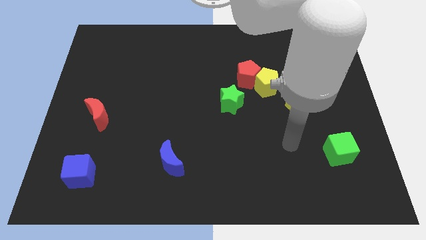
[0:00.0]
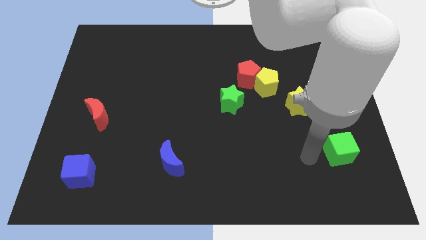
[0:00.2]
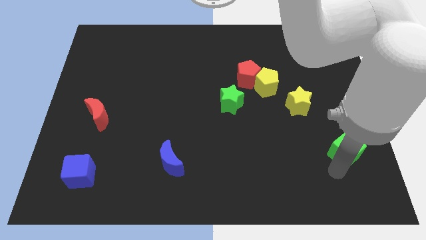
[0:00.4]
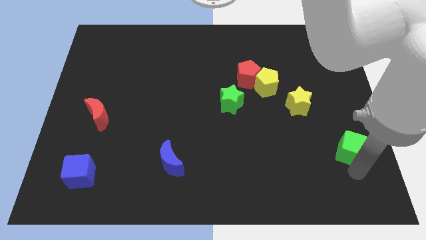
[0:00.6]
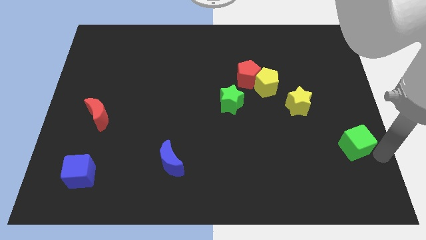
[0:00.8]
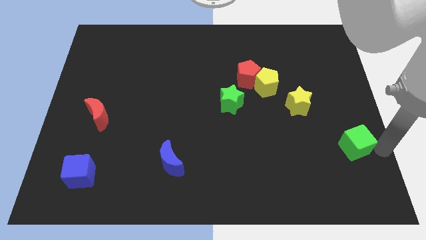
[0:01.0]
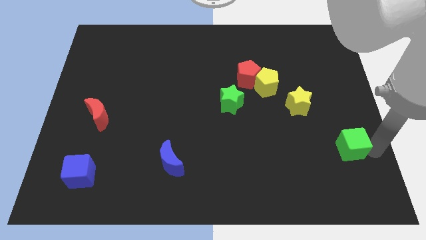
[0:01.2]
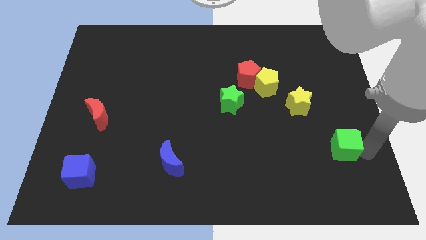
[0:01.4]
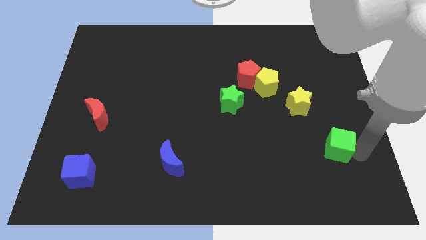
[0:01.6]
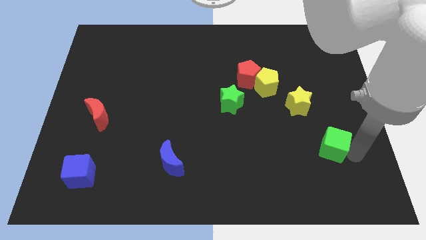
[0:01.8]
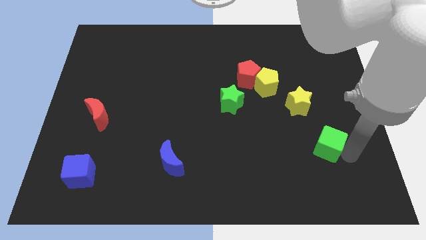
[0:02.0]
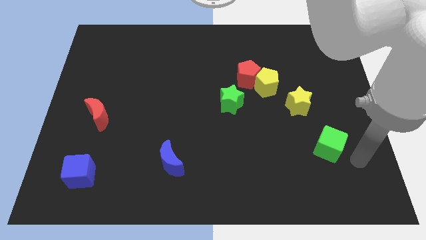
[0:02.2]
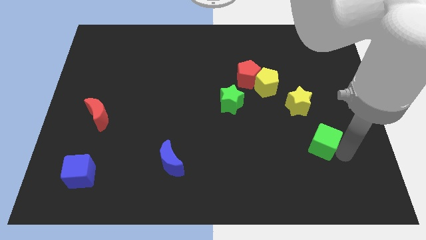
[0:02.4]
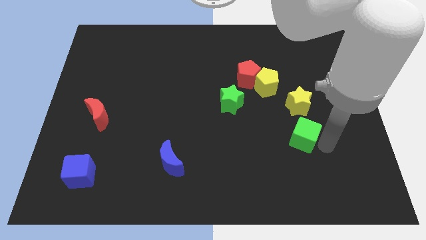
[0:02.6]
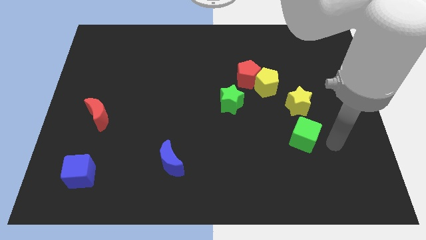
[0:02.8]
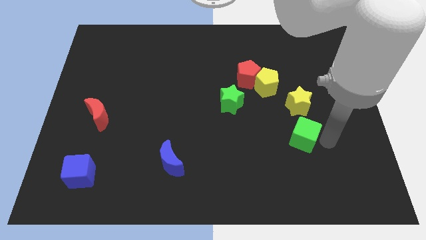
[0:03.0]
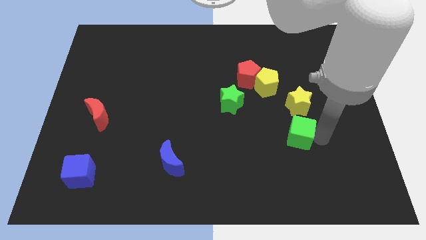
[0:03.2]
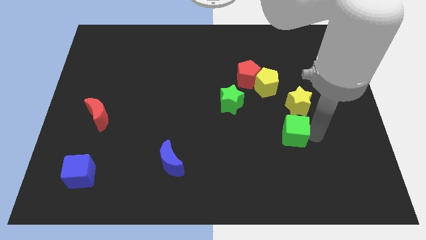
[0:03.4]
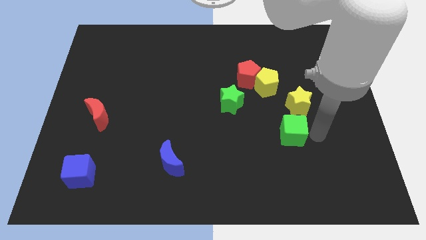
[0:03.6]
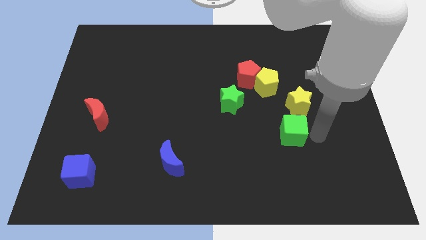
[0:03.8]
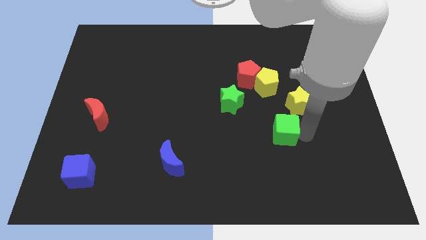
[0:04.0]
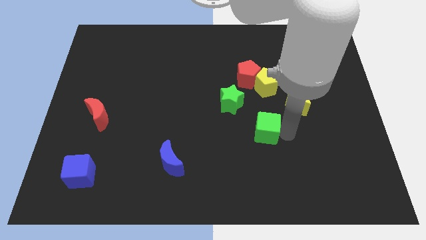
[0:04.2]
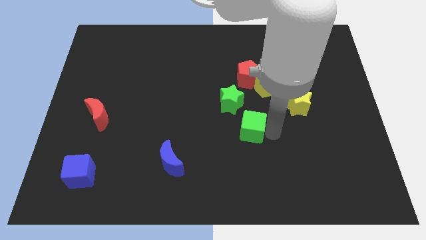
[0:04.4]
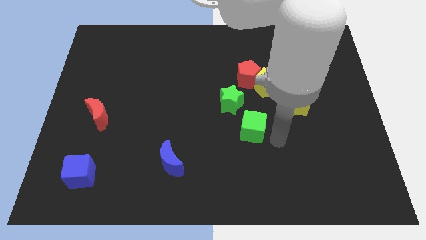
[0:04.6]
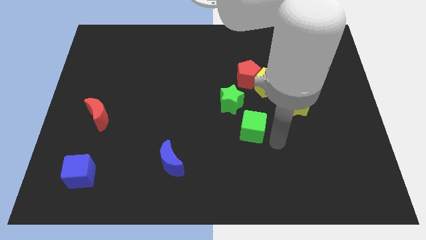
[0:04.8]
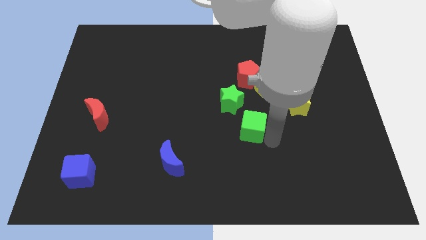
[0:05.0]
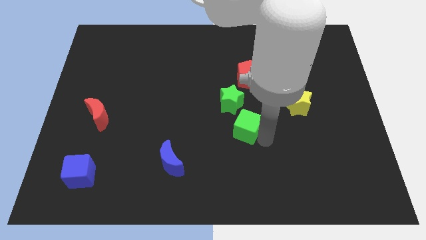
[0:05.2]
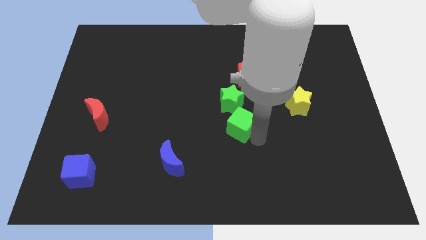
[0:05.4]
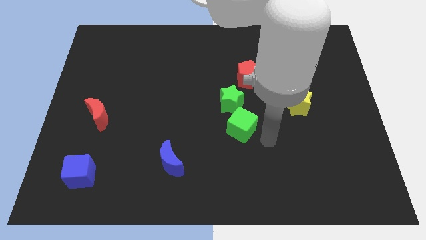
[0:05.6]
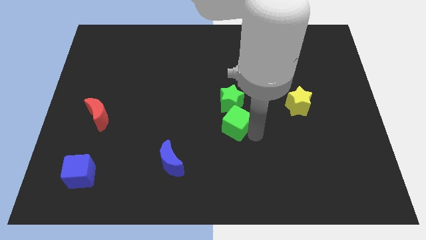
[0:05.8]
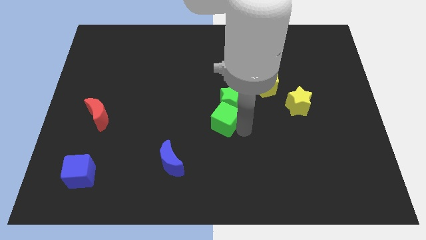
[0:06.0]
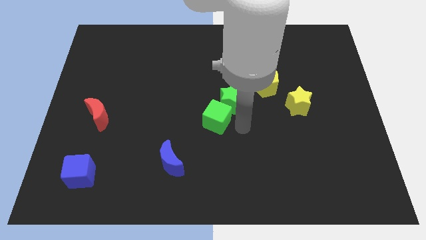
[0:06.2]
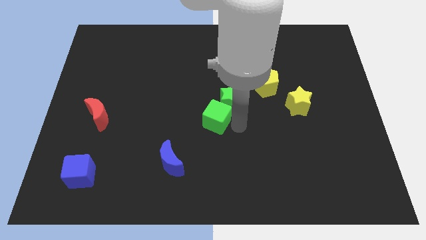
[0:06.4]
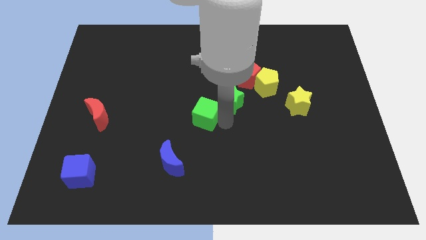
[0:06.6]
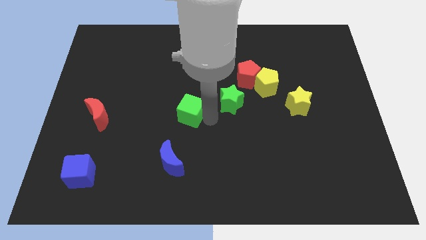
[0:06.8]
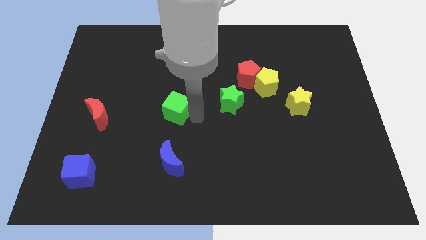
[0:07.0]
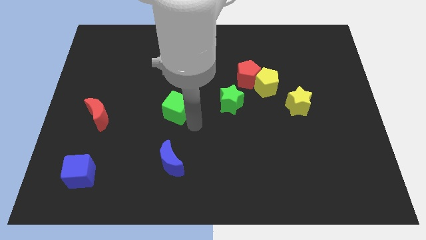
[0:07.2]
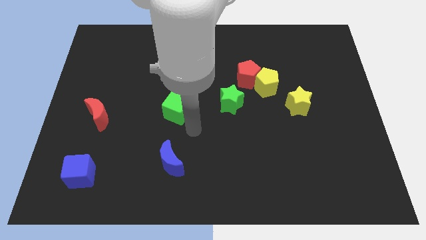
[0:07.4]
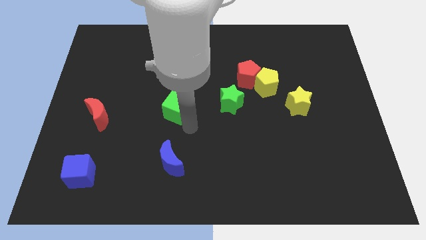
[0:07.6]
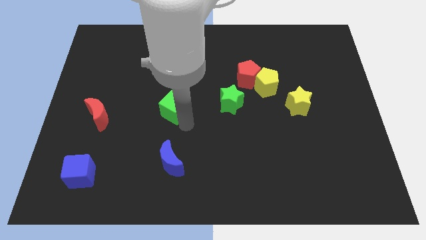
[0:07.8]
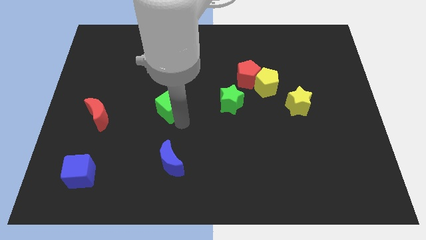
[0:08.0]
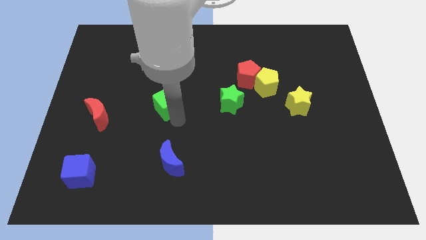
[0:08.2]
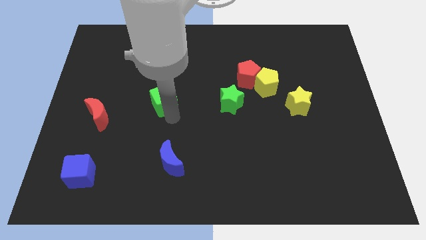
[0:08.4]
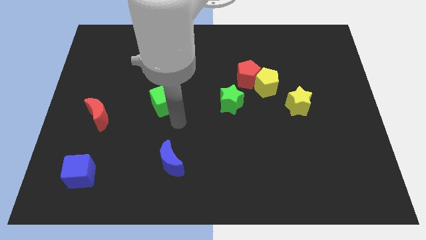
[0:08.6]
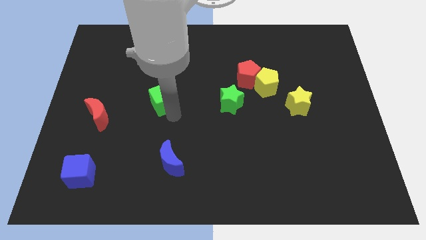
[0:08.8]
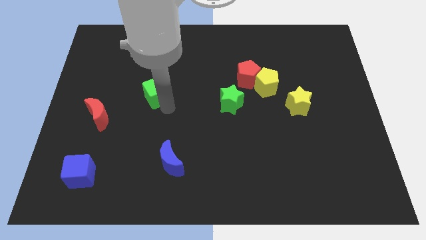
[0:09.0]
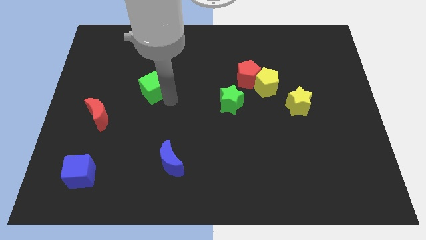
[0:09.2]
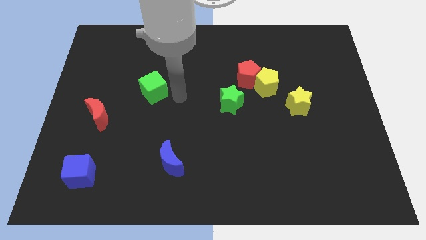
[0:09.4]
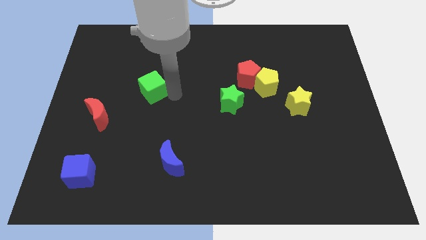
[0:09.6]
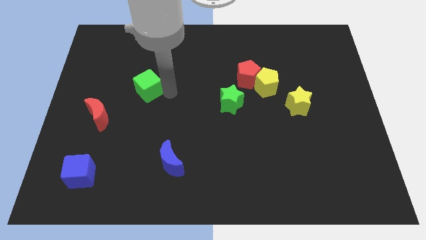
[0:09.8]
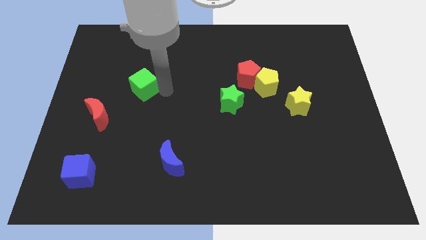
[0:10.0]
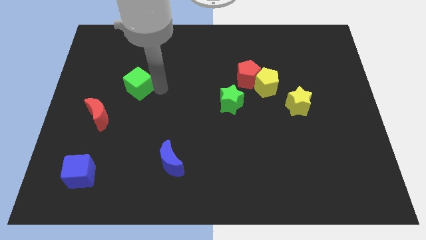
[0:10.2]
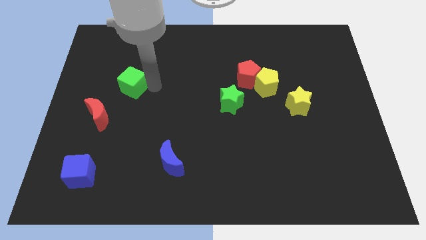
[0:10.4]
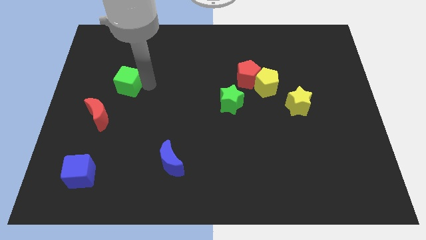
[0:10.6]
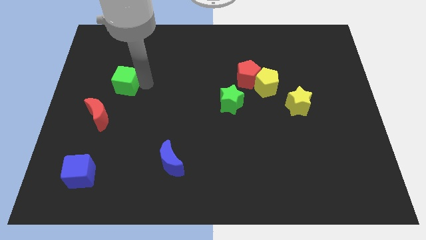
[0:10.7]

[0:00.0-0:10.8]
push the green cube above the red moon

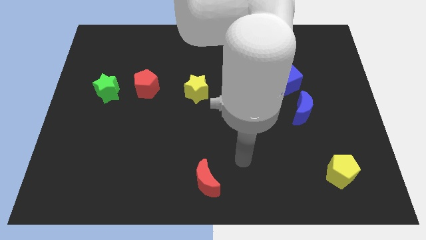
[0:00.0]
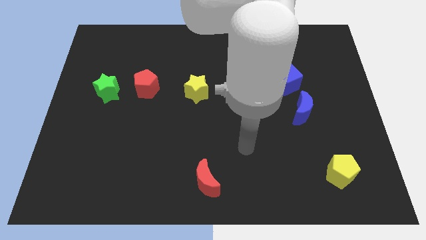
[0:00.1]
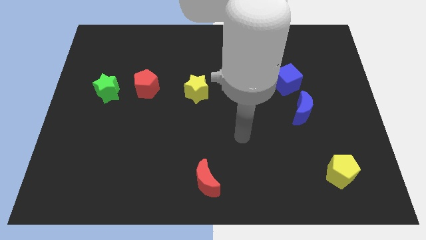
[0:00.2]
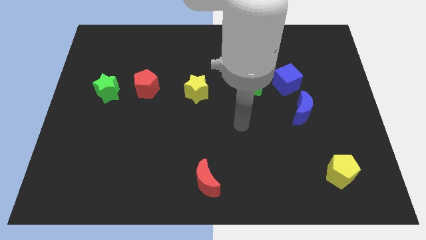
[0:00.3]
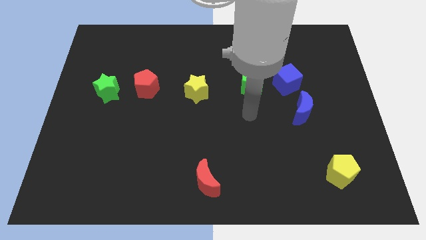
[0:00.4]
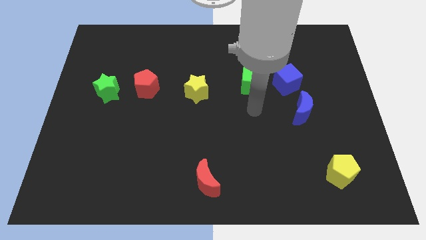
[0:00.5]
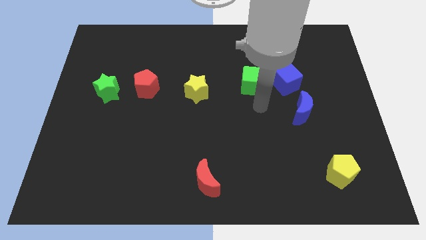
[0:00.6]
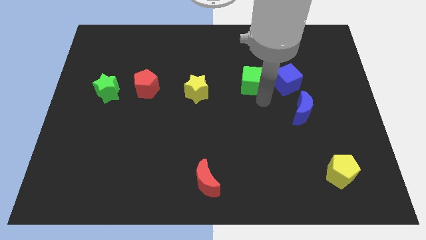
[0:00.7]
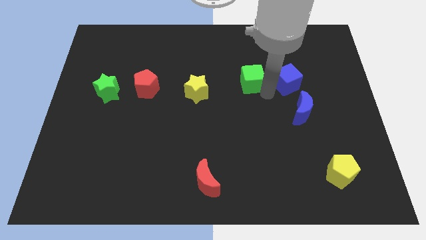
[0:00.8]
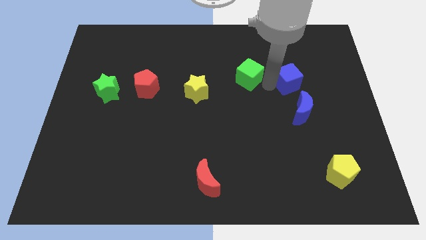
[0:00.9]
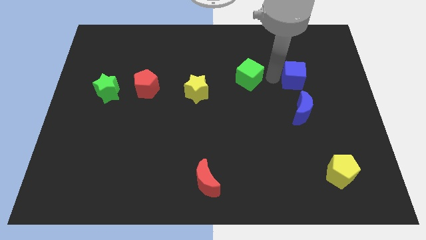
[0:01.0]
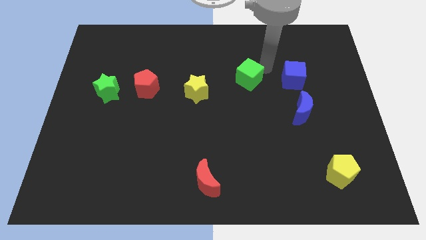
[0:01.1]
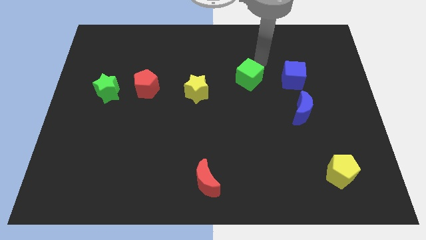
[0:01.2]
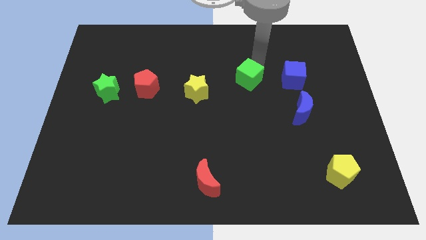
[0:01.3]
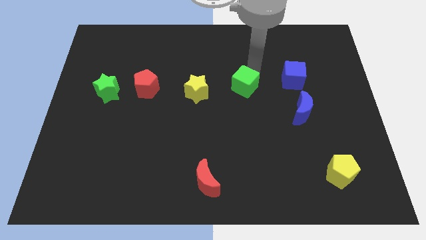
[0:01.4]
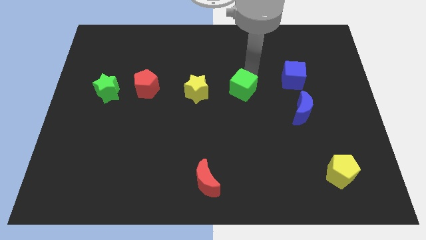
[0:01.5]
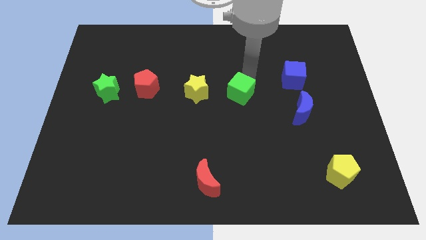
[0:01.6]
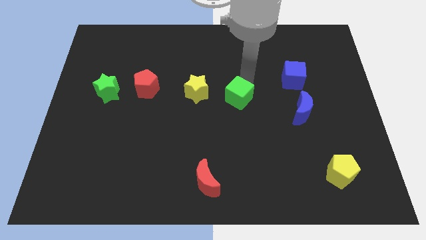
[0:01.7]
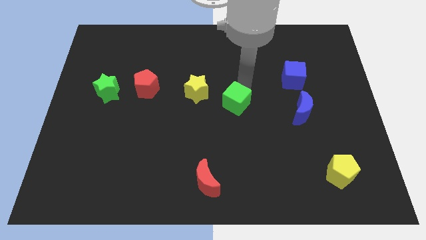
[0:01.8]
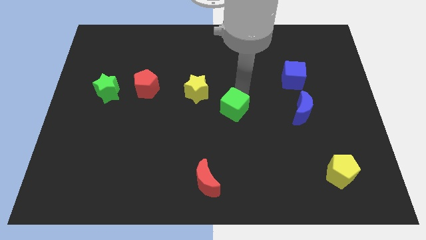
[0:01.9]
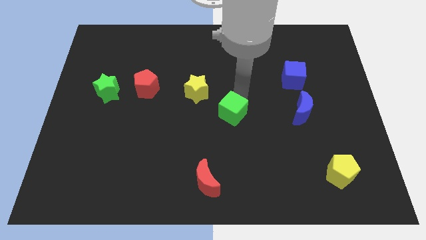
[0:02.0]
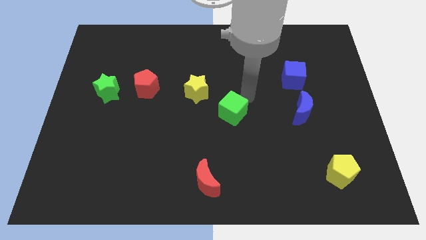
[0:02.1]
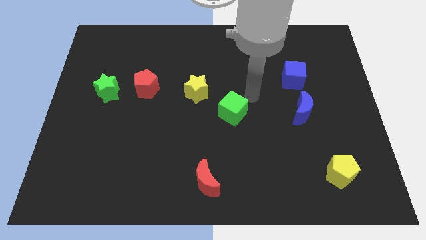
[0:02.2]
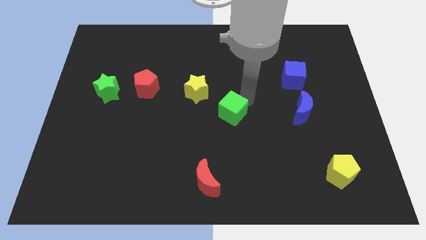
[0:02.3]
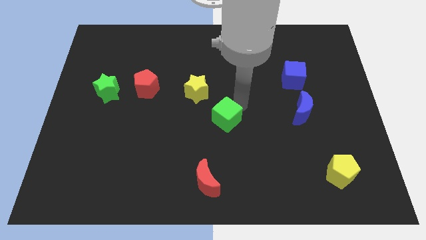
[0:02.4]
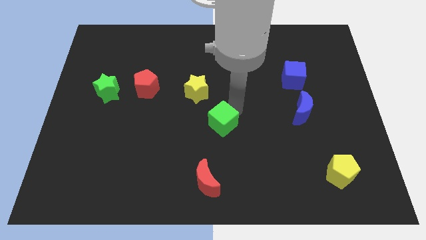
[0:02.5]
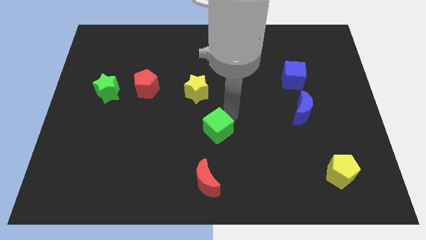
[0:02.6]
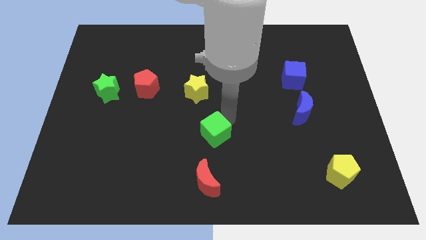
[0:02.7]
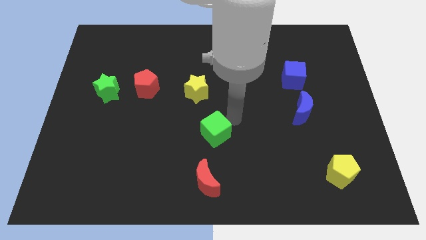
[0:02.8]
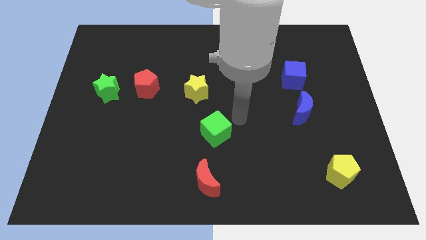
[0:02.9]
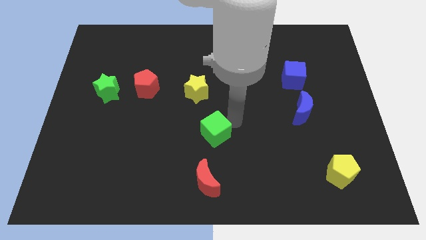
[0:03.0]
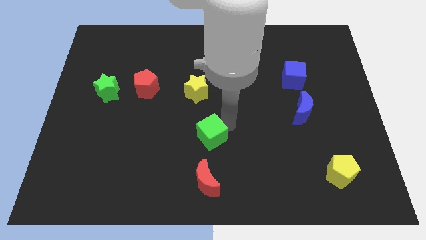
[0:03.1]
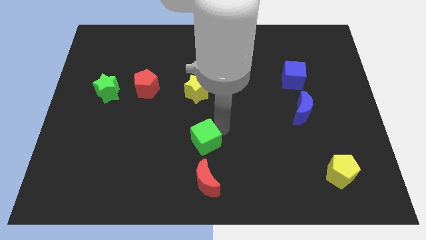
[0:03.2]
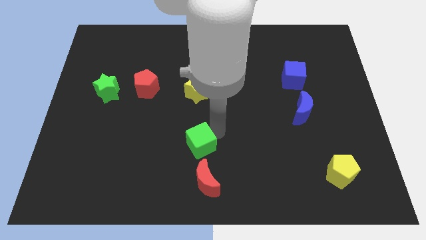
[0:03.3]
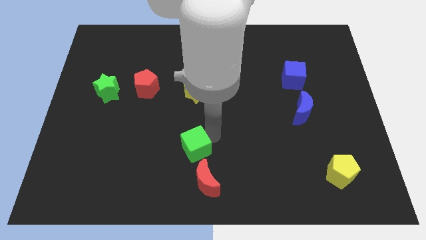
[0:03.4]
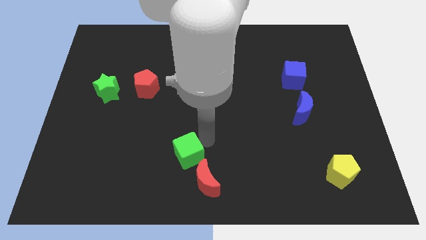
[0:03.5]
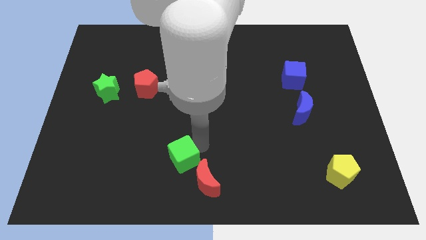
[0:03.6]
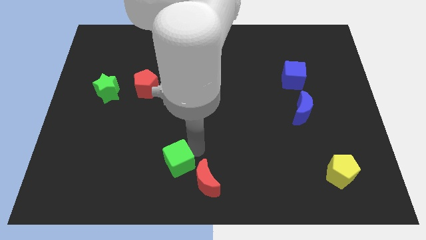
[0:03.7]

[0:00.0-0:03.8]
push the green cube just left of the red moon
